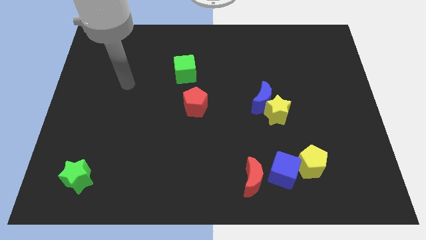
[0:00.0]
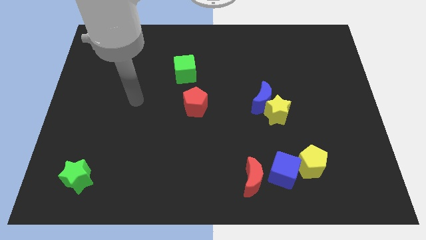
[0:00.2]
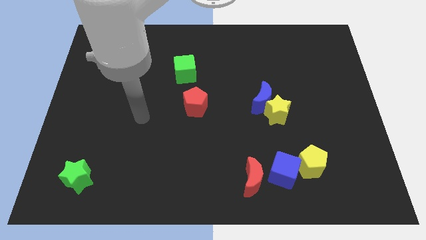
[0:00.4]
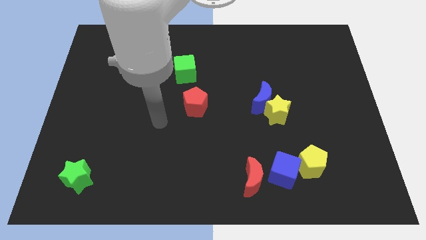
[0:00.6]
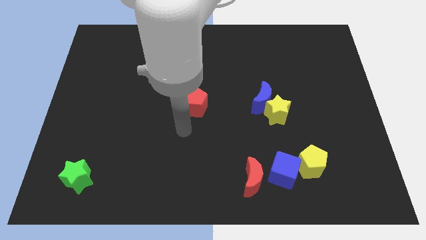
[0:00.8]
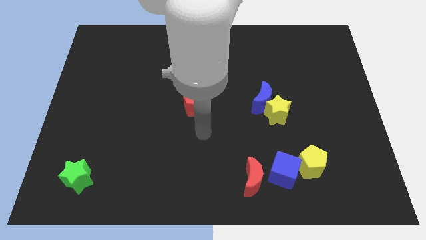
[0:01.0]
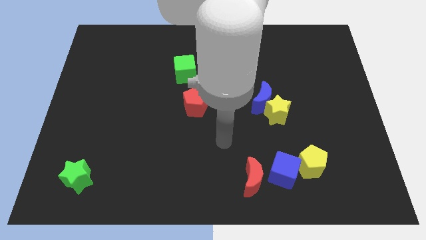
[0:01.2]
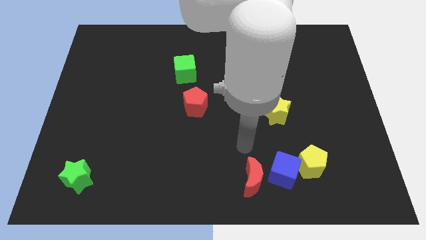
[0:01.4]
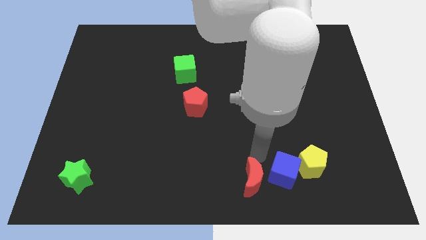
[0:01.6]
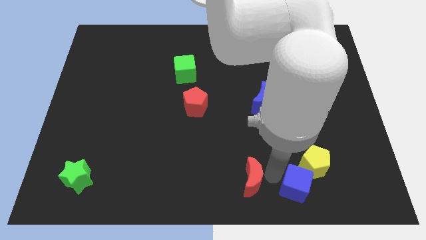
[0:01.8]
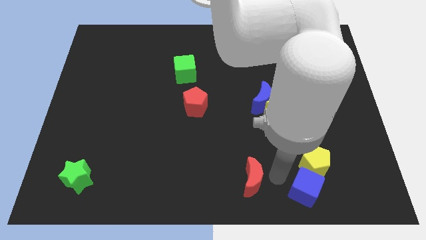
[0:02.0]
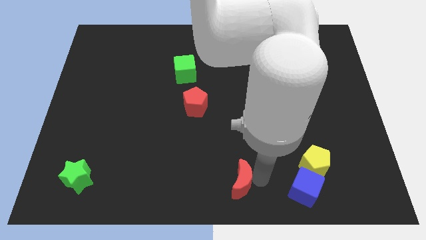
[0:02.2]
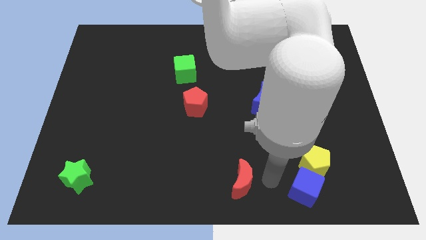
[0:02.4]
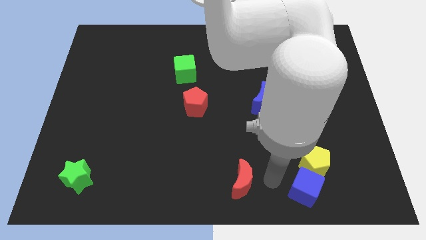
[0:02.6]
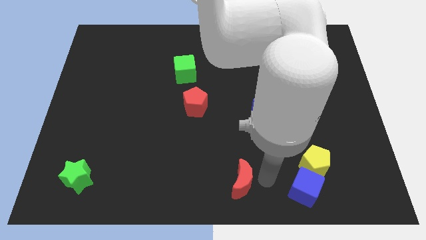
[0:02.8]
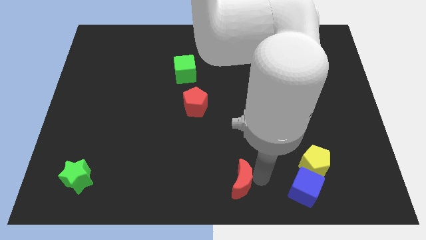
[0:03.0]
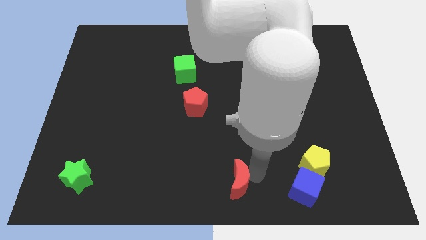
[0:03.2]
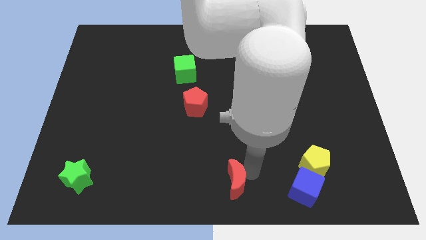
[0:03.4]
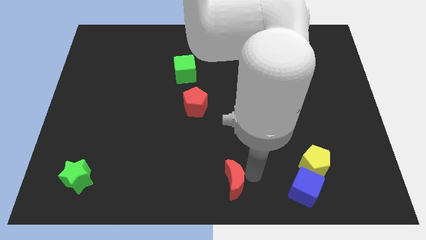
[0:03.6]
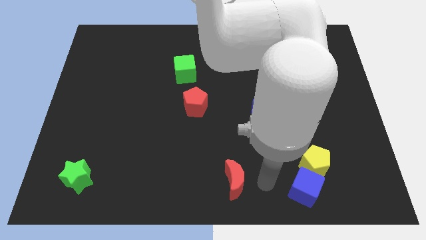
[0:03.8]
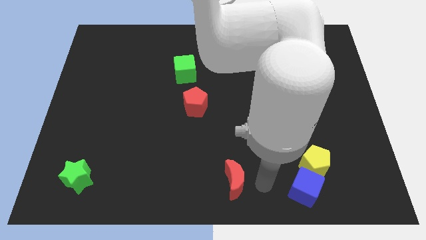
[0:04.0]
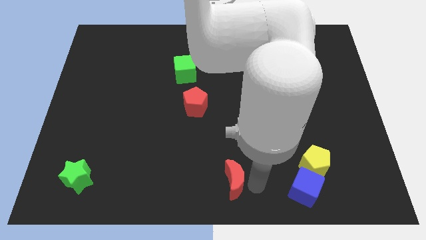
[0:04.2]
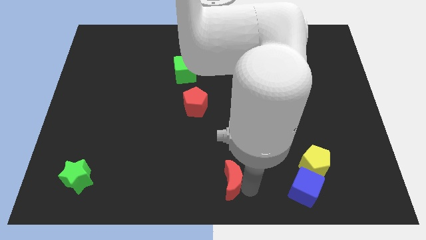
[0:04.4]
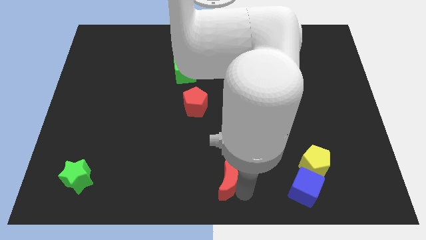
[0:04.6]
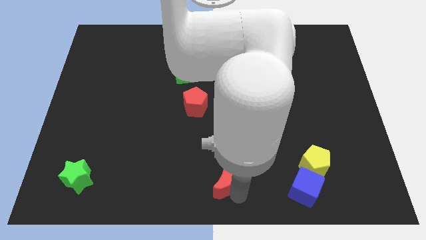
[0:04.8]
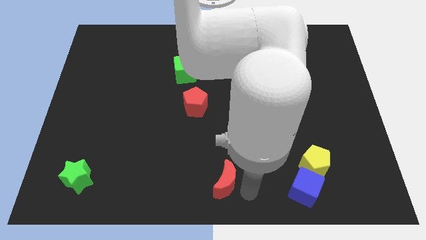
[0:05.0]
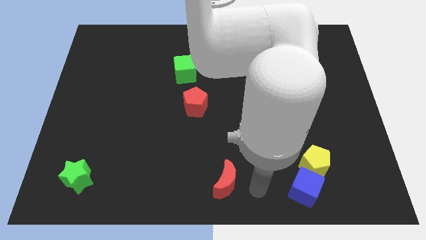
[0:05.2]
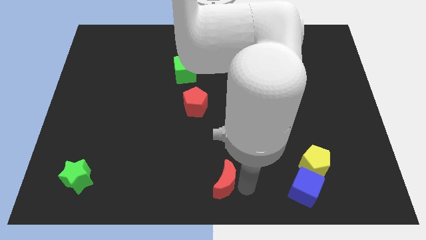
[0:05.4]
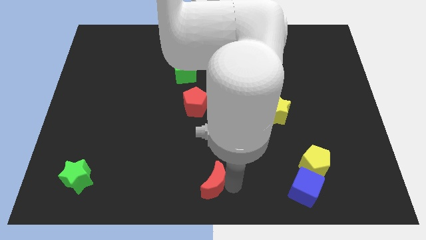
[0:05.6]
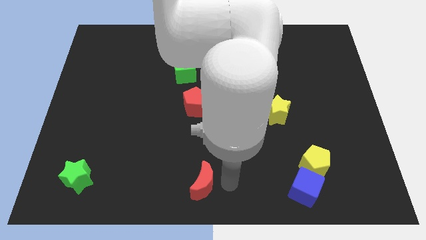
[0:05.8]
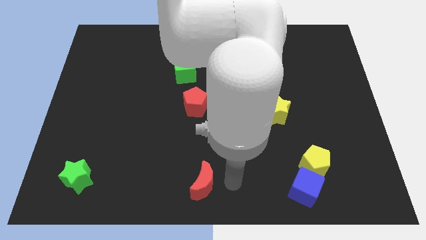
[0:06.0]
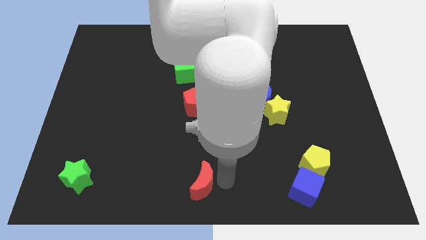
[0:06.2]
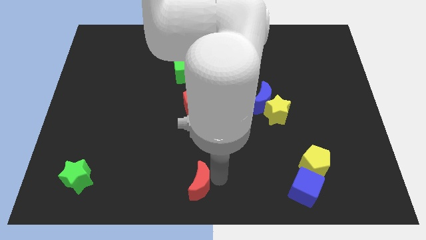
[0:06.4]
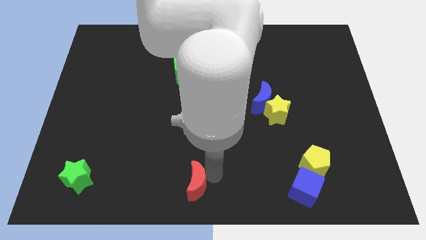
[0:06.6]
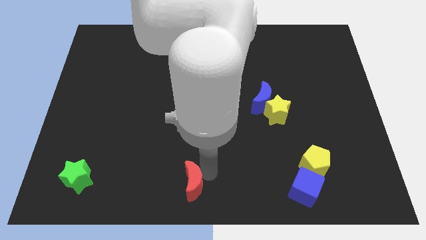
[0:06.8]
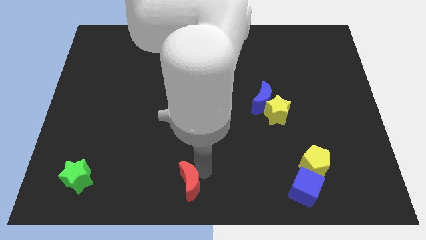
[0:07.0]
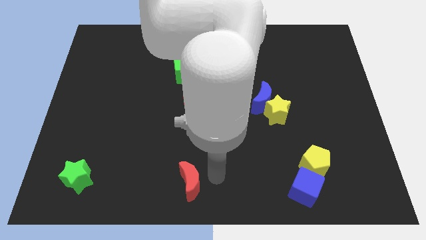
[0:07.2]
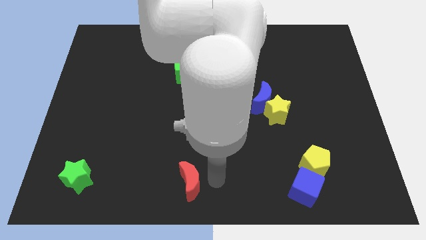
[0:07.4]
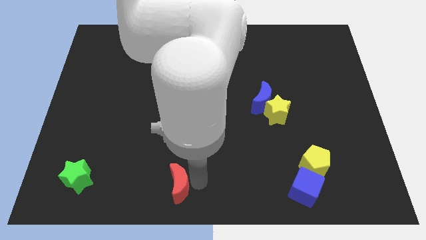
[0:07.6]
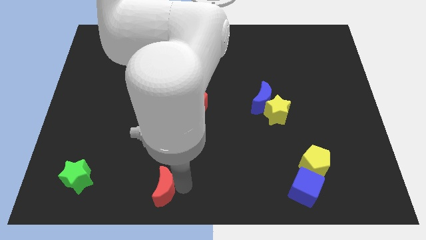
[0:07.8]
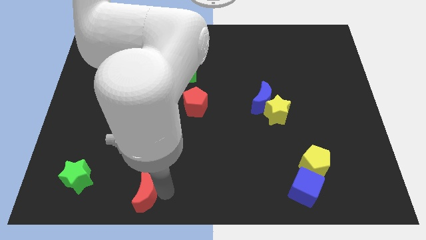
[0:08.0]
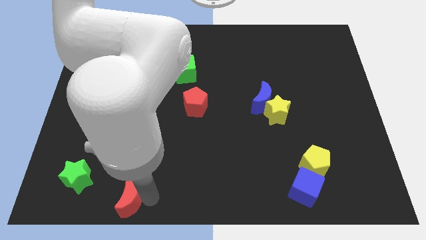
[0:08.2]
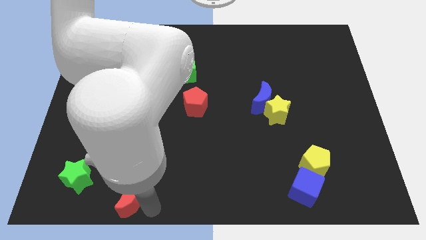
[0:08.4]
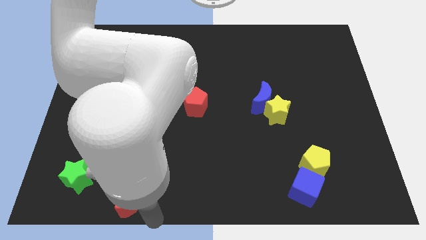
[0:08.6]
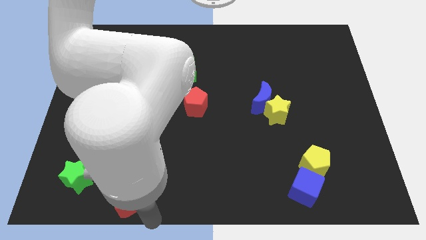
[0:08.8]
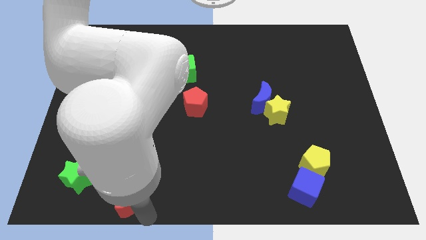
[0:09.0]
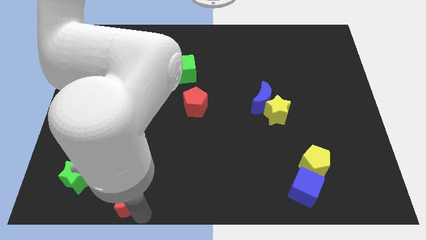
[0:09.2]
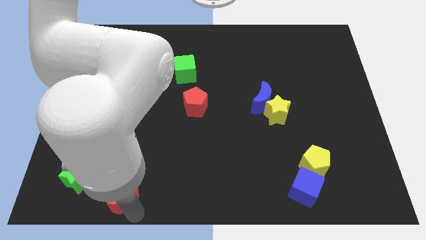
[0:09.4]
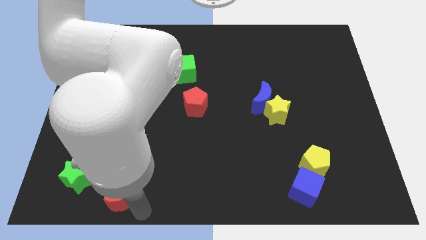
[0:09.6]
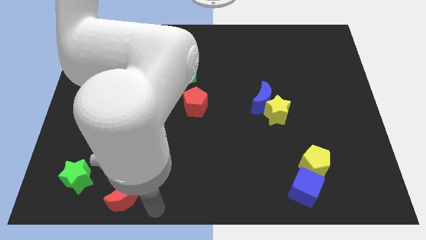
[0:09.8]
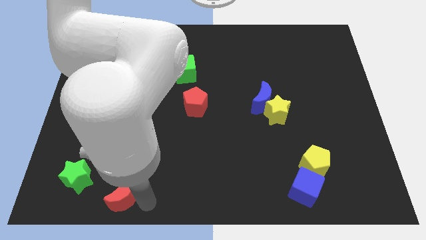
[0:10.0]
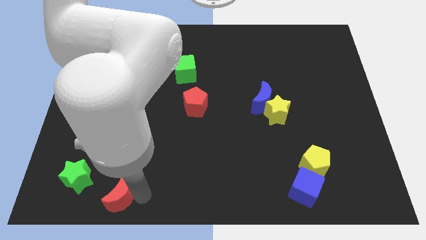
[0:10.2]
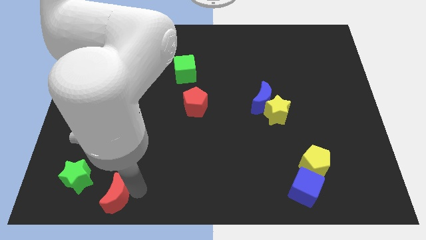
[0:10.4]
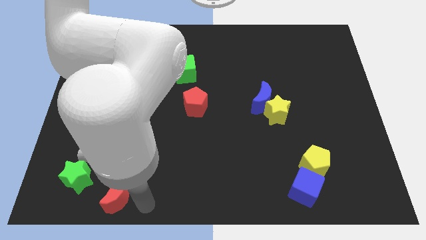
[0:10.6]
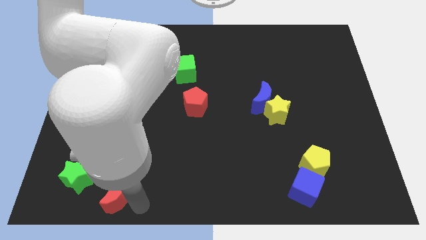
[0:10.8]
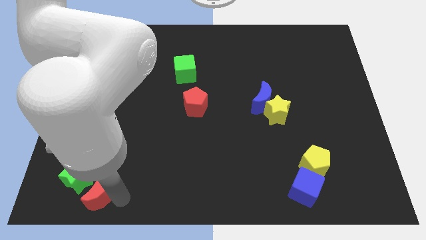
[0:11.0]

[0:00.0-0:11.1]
put the red moon close to the green star

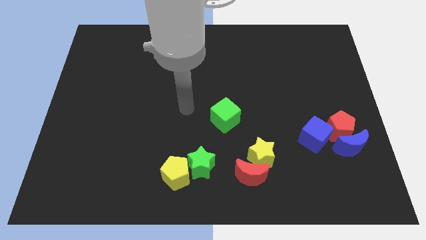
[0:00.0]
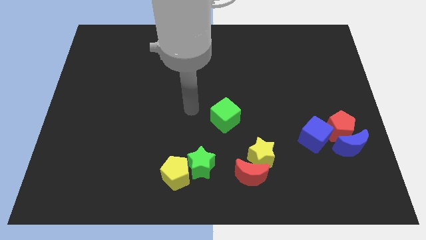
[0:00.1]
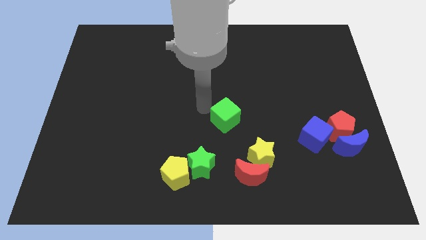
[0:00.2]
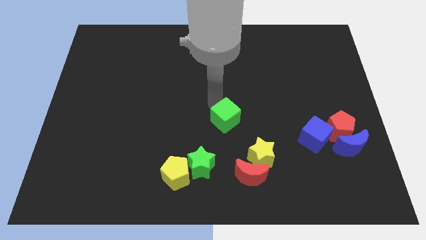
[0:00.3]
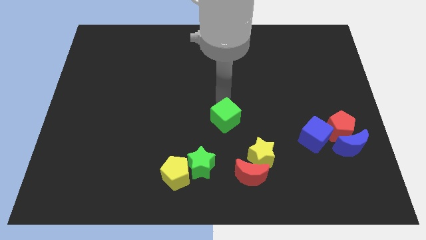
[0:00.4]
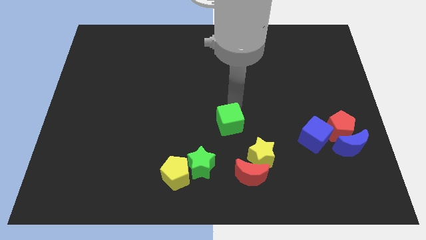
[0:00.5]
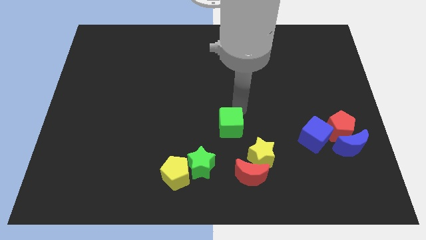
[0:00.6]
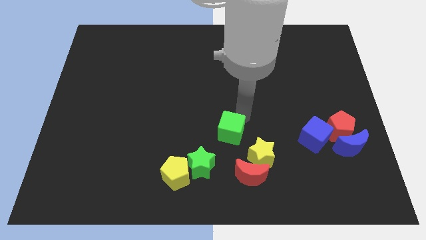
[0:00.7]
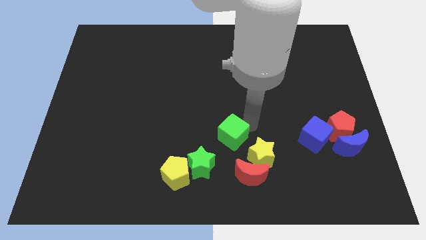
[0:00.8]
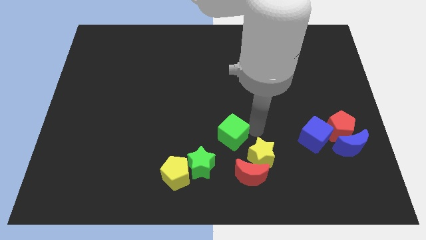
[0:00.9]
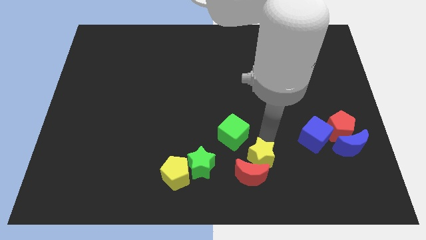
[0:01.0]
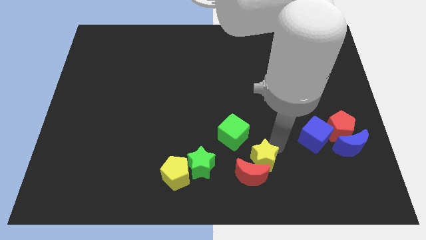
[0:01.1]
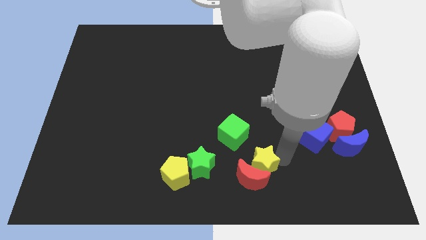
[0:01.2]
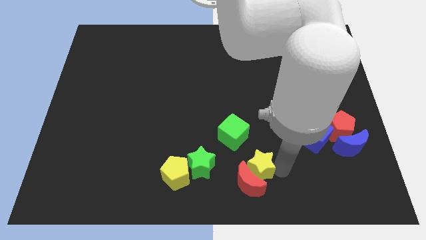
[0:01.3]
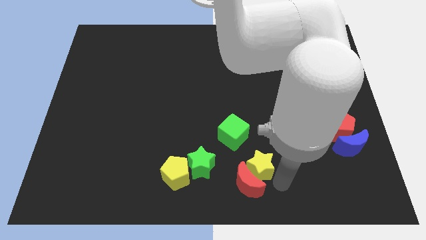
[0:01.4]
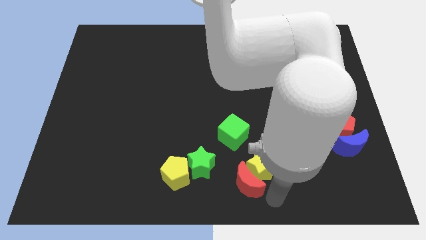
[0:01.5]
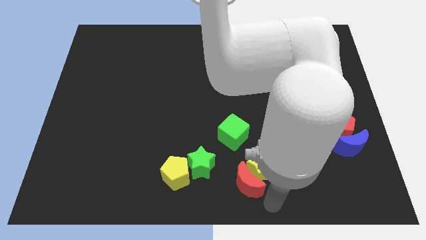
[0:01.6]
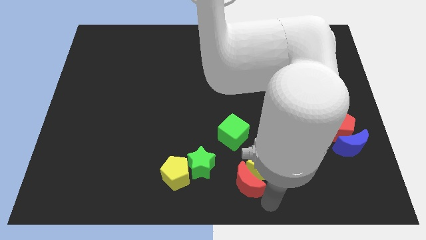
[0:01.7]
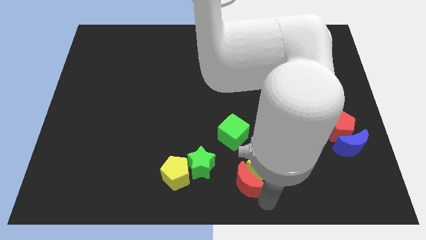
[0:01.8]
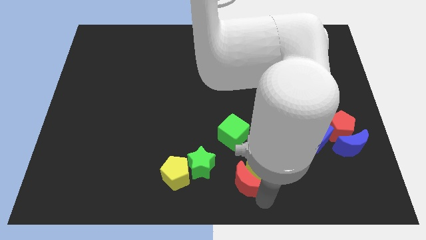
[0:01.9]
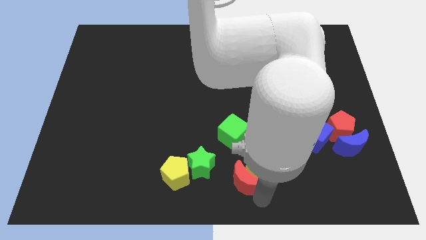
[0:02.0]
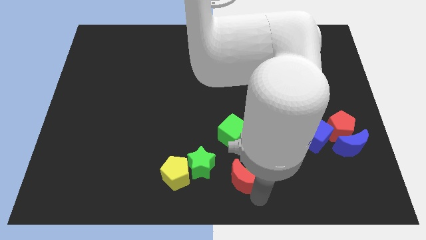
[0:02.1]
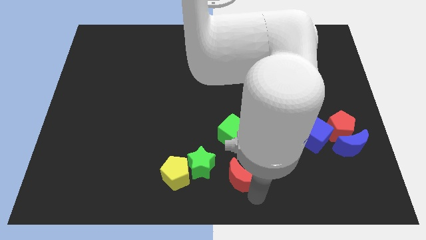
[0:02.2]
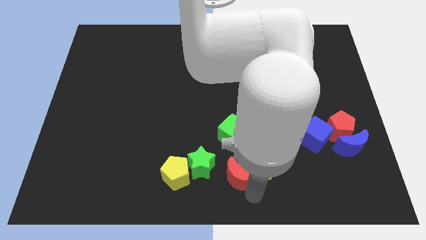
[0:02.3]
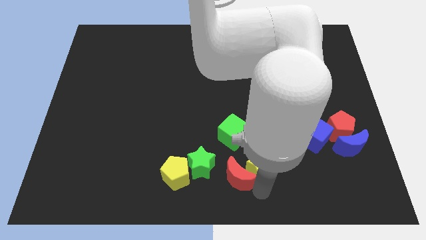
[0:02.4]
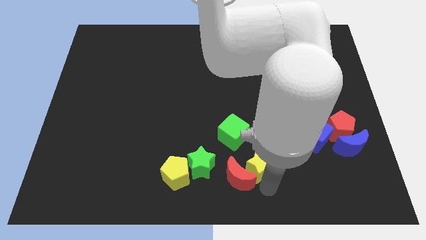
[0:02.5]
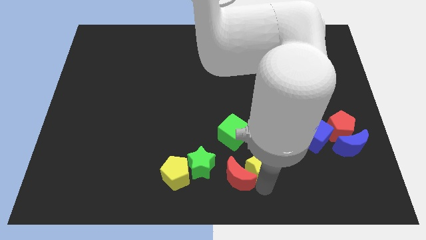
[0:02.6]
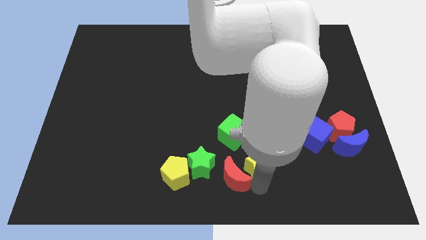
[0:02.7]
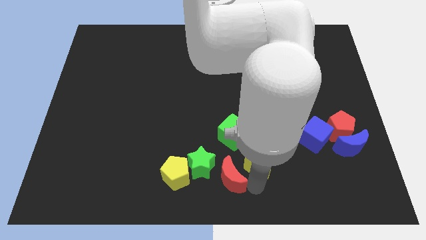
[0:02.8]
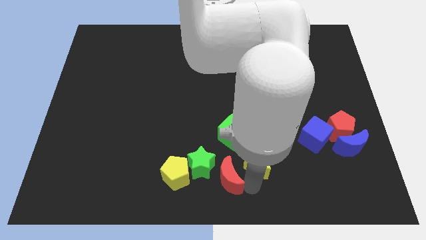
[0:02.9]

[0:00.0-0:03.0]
push the red moon to the green star
